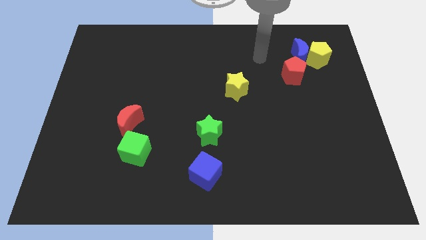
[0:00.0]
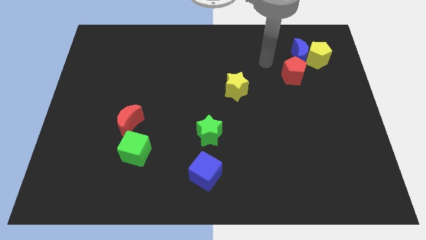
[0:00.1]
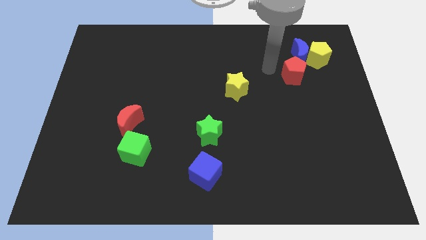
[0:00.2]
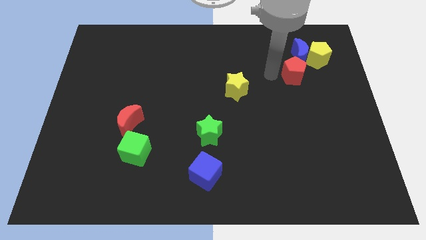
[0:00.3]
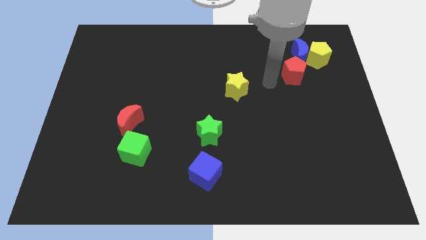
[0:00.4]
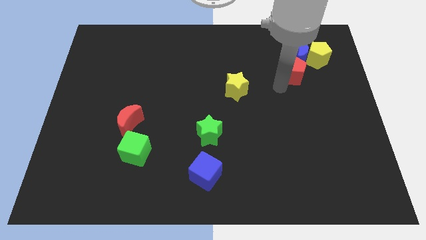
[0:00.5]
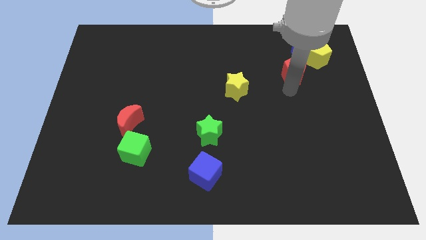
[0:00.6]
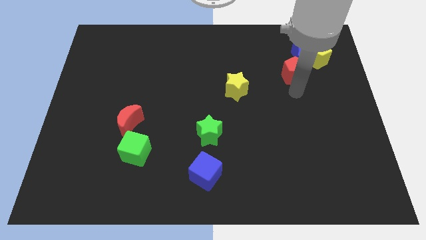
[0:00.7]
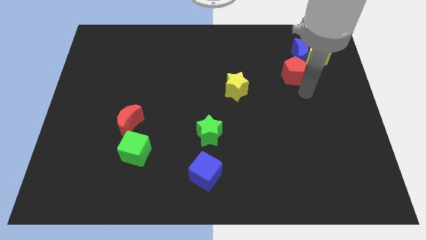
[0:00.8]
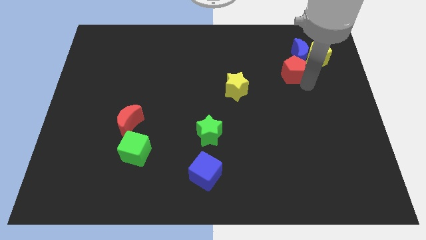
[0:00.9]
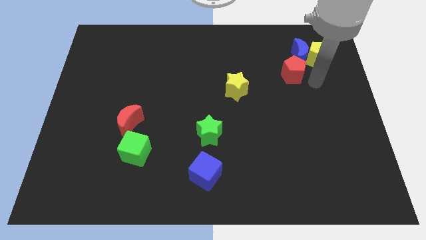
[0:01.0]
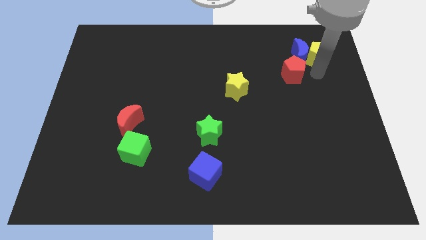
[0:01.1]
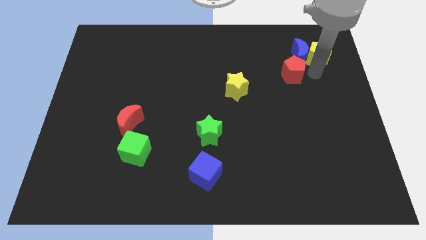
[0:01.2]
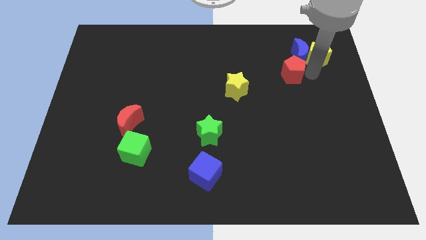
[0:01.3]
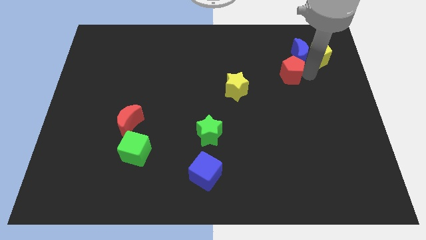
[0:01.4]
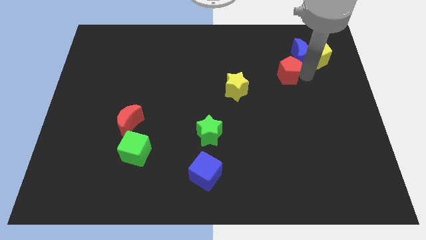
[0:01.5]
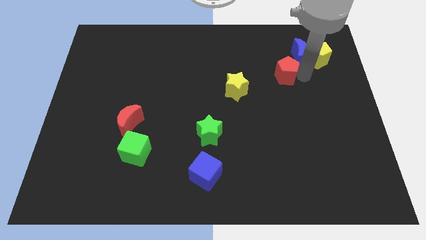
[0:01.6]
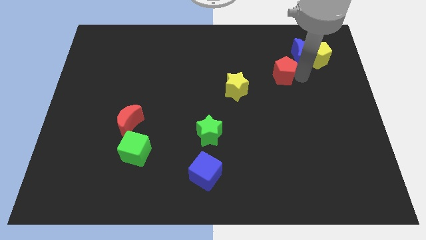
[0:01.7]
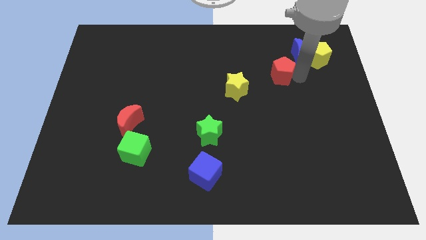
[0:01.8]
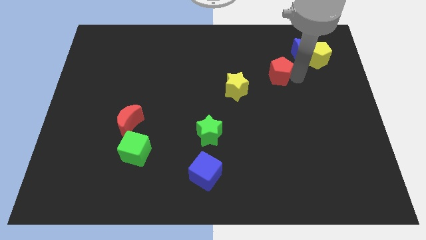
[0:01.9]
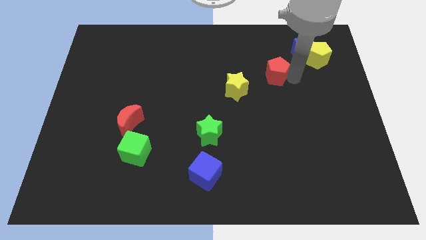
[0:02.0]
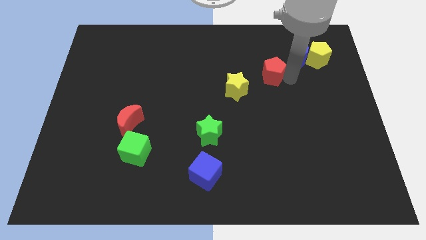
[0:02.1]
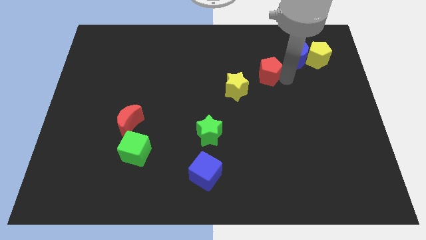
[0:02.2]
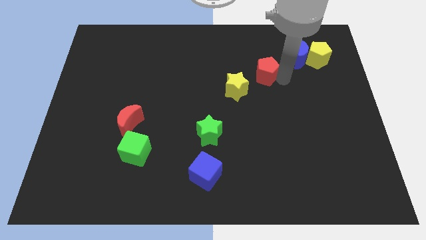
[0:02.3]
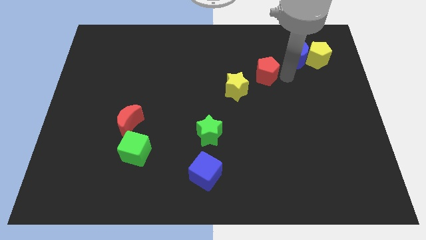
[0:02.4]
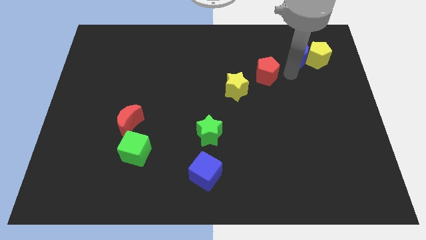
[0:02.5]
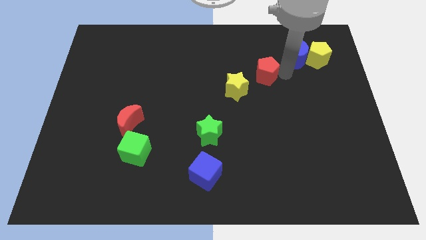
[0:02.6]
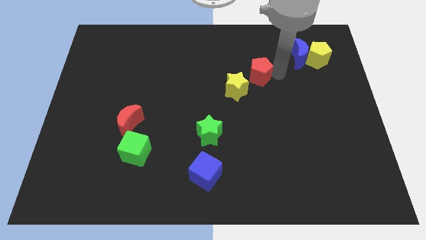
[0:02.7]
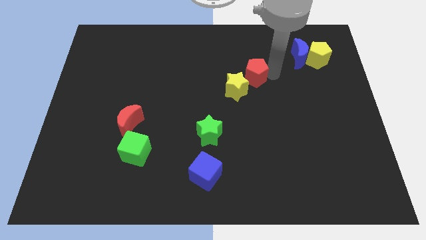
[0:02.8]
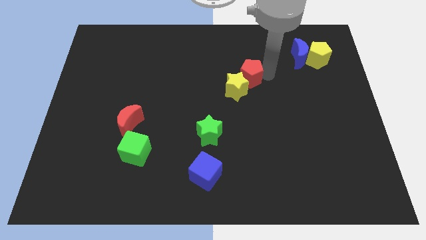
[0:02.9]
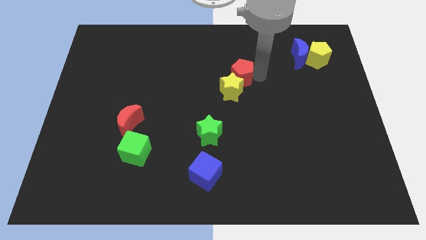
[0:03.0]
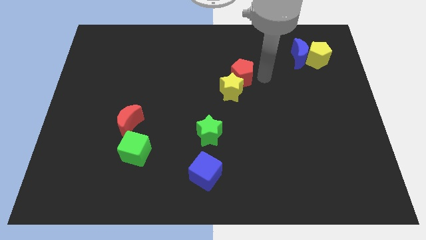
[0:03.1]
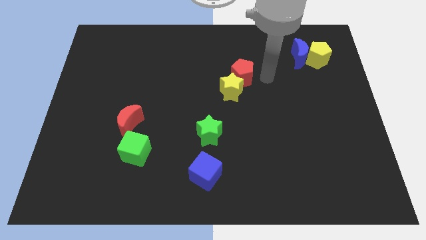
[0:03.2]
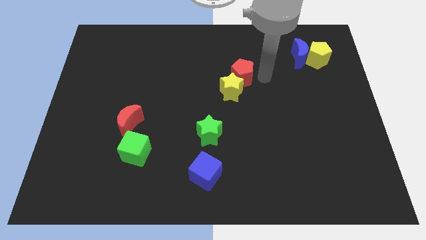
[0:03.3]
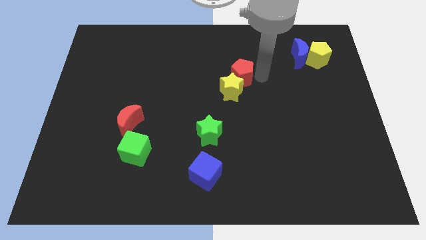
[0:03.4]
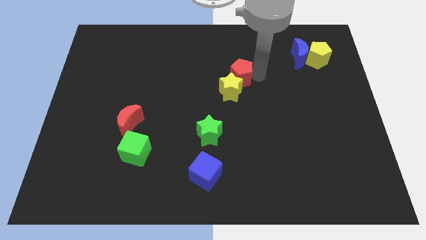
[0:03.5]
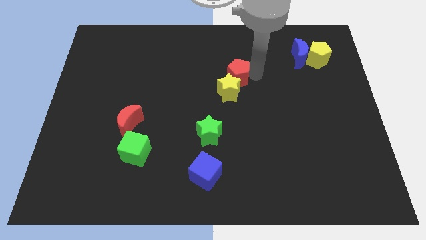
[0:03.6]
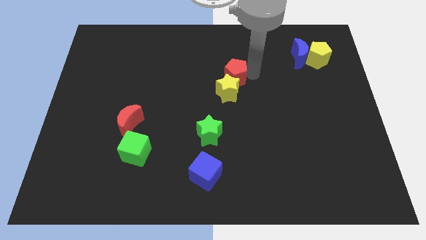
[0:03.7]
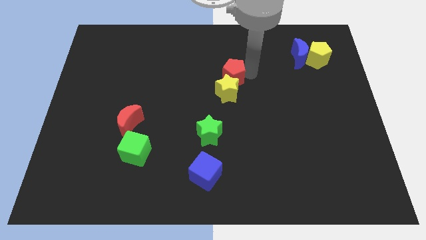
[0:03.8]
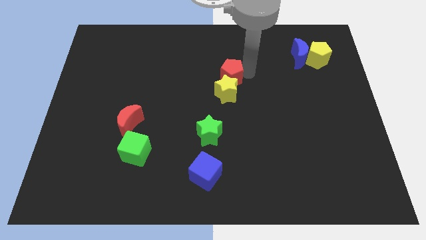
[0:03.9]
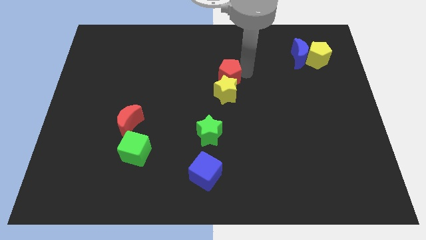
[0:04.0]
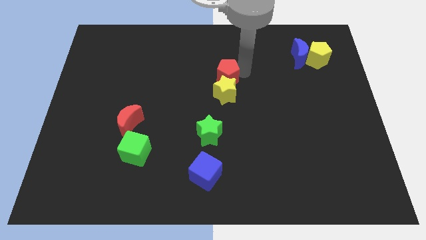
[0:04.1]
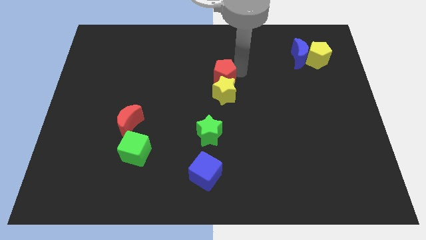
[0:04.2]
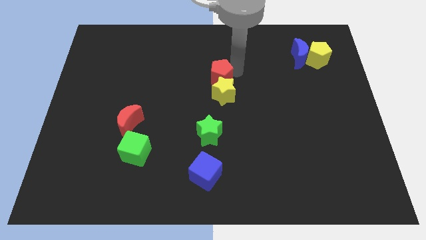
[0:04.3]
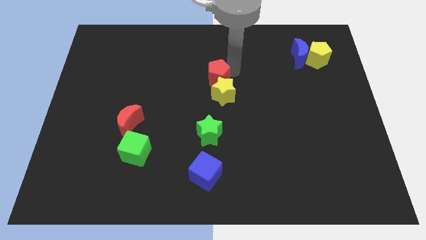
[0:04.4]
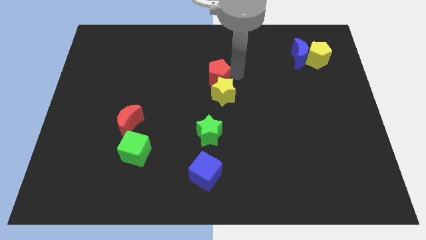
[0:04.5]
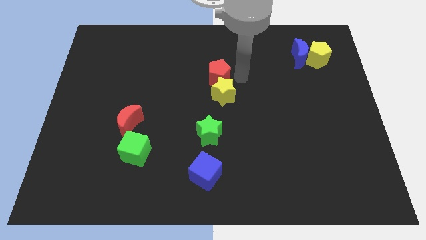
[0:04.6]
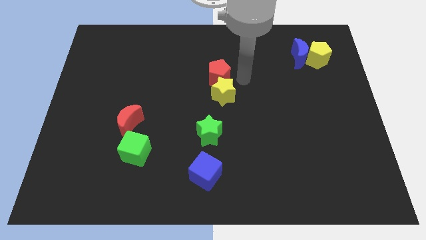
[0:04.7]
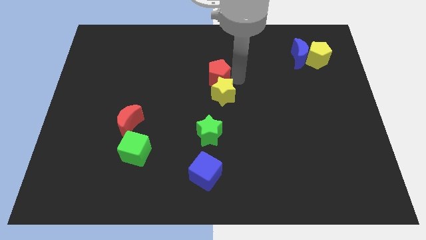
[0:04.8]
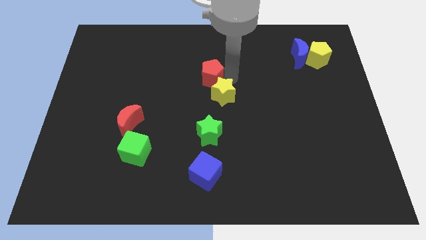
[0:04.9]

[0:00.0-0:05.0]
push the red pentagon to the left

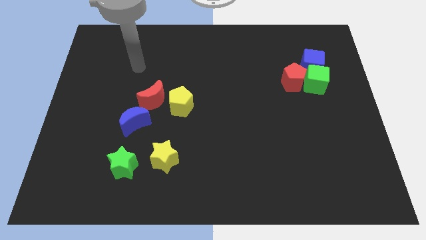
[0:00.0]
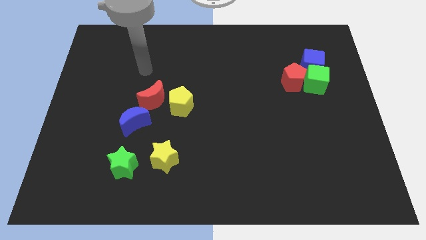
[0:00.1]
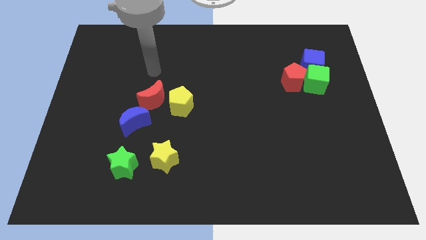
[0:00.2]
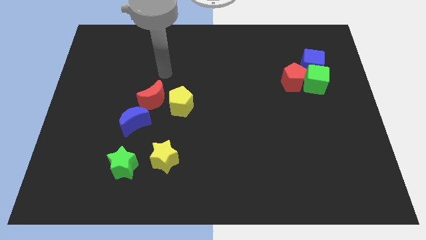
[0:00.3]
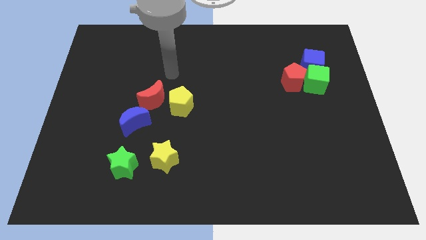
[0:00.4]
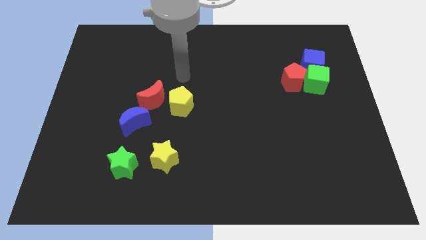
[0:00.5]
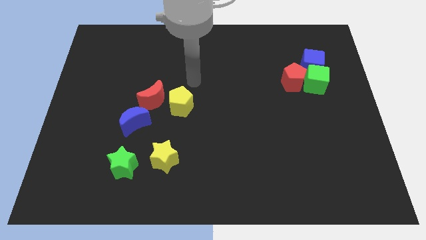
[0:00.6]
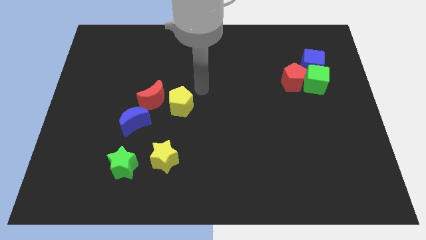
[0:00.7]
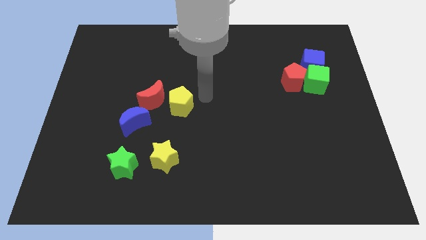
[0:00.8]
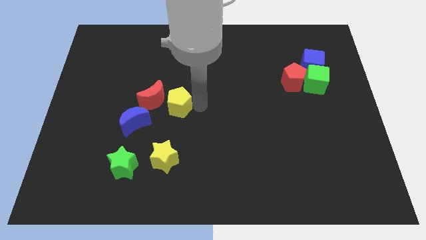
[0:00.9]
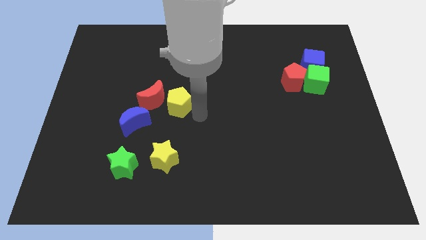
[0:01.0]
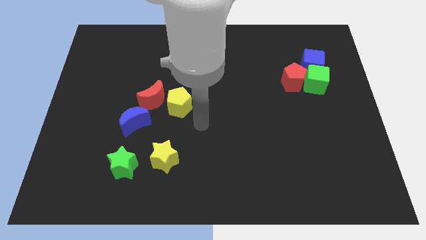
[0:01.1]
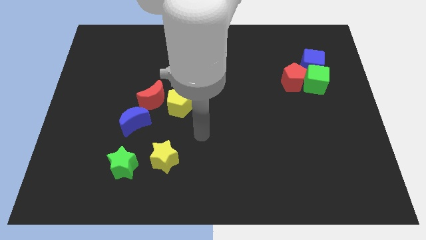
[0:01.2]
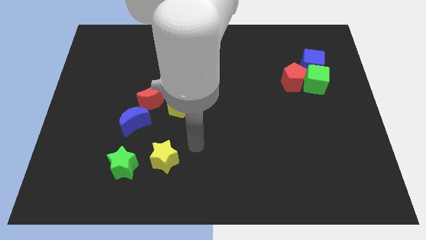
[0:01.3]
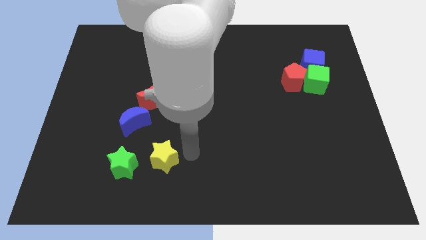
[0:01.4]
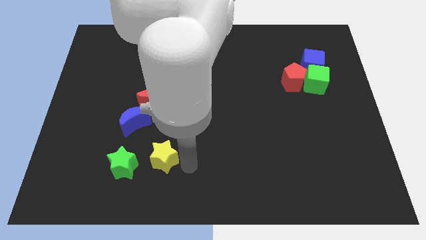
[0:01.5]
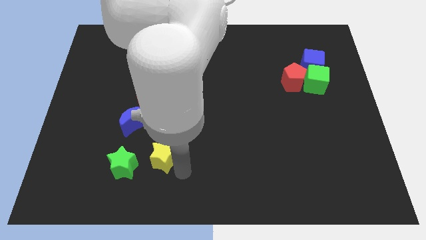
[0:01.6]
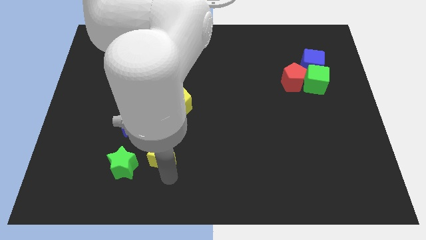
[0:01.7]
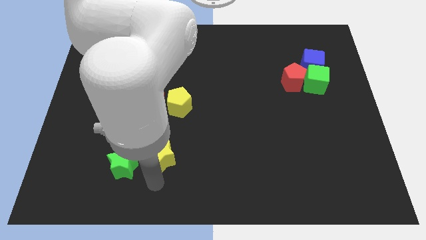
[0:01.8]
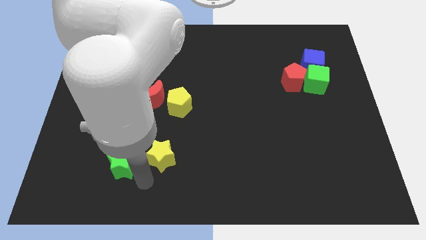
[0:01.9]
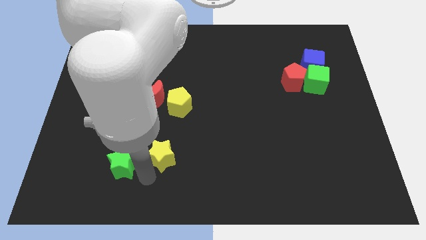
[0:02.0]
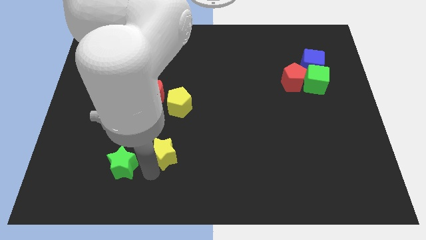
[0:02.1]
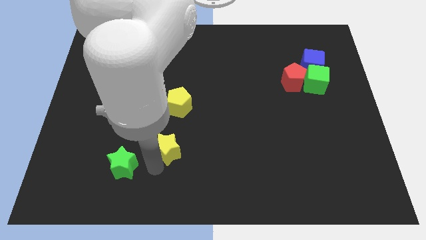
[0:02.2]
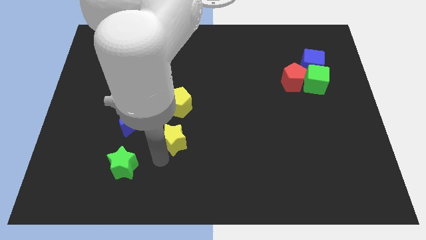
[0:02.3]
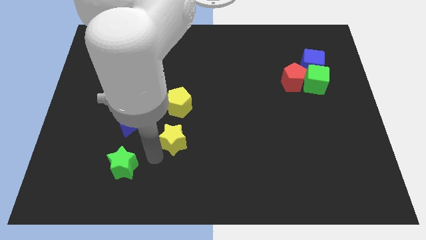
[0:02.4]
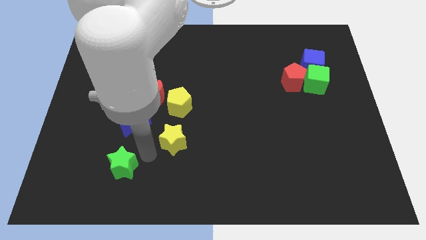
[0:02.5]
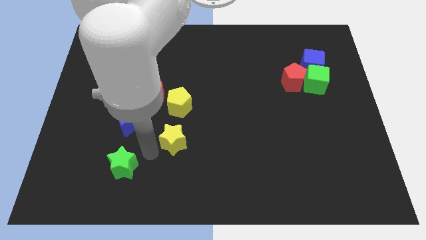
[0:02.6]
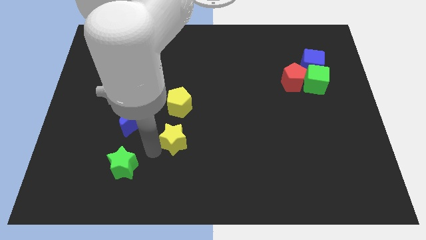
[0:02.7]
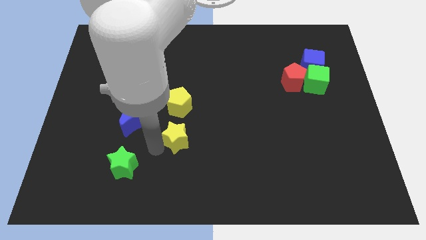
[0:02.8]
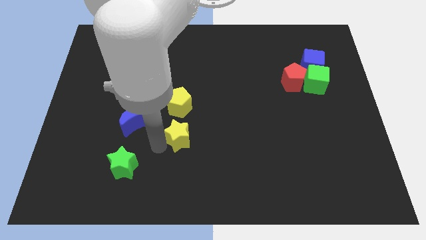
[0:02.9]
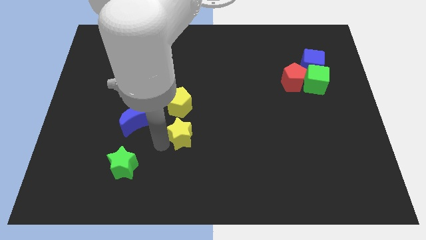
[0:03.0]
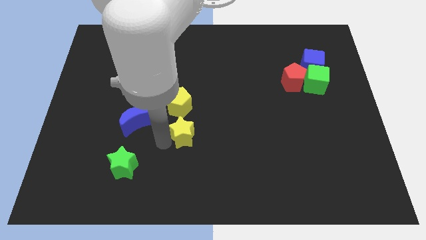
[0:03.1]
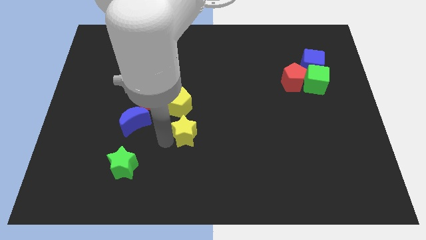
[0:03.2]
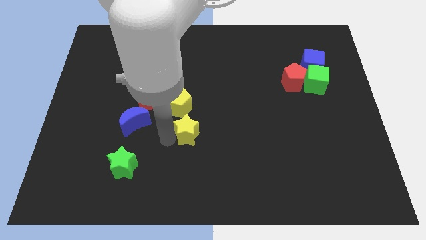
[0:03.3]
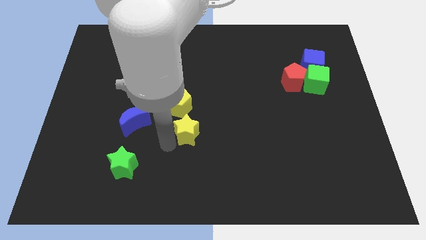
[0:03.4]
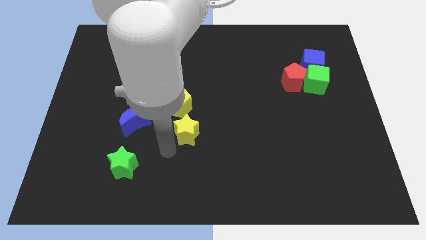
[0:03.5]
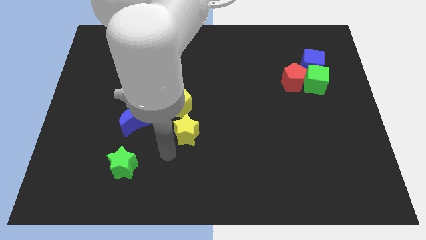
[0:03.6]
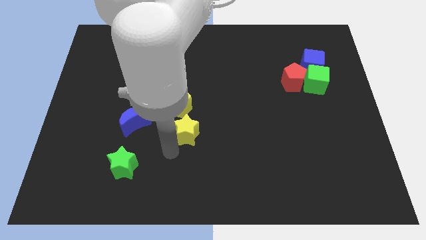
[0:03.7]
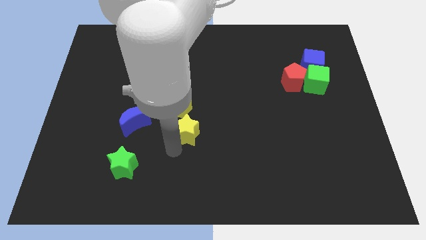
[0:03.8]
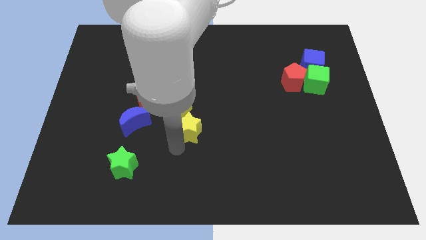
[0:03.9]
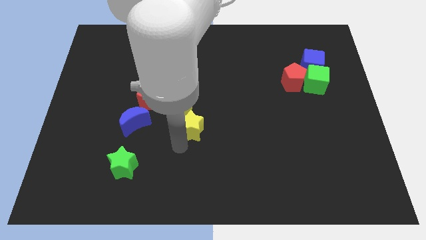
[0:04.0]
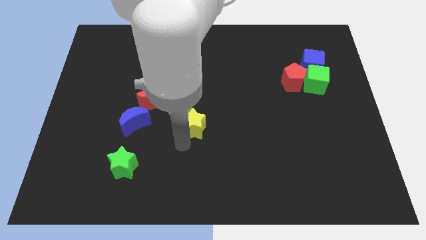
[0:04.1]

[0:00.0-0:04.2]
slightly move the yellow star upwards
